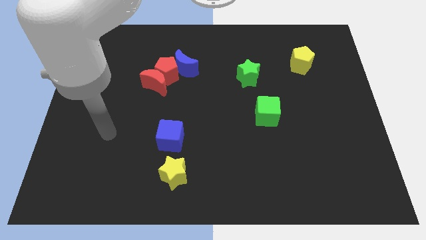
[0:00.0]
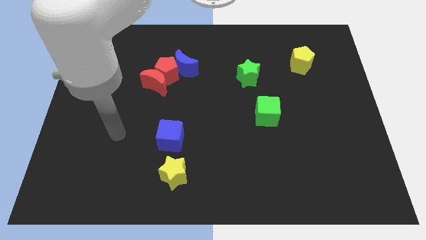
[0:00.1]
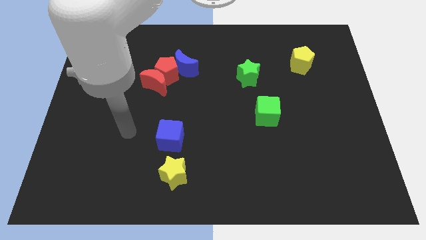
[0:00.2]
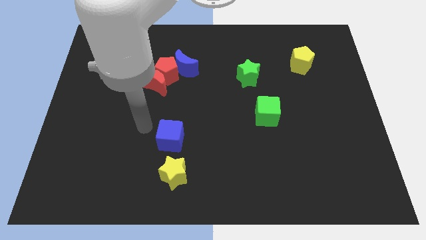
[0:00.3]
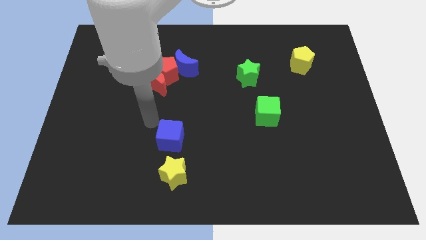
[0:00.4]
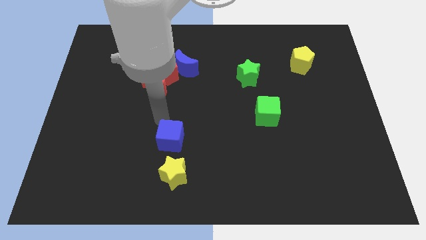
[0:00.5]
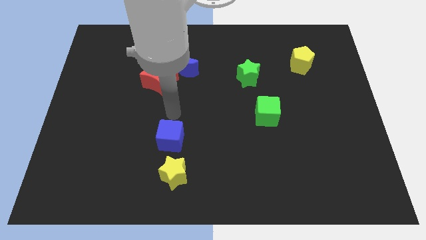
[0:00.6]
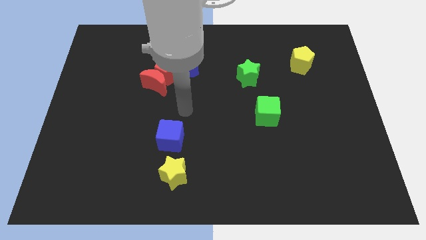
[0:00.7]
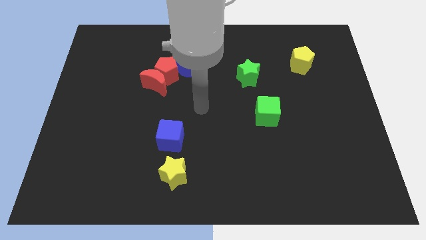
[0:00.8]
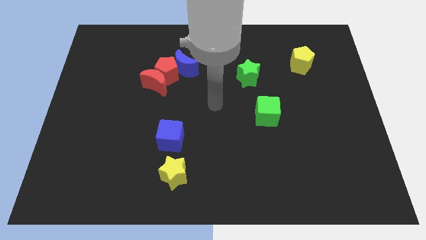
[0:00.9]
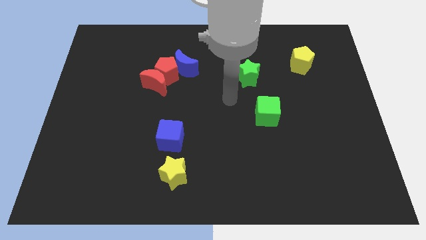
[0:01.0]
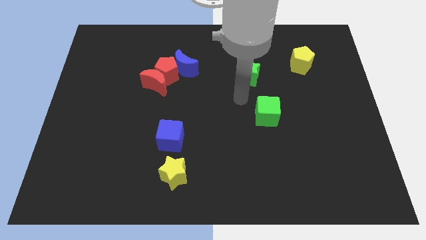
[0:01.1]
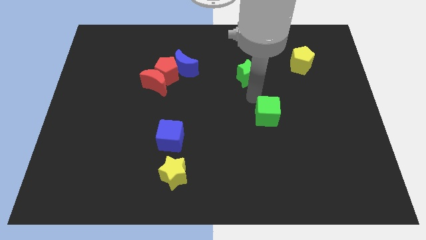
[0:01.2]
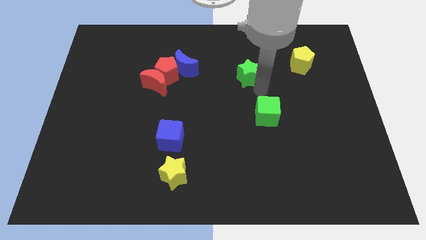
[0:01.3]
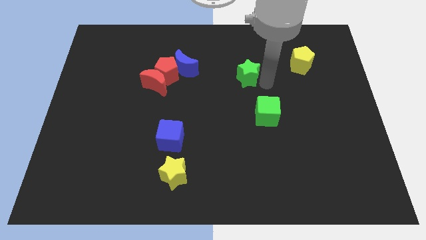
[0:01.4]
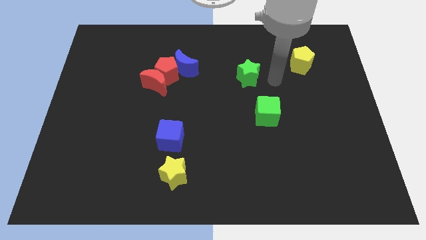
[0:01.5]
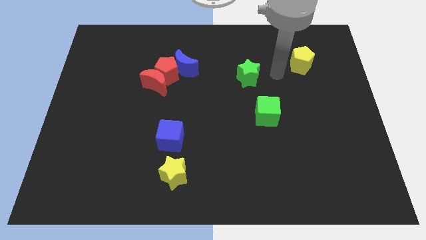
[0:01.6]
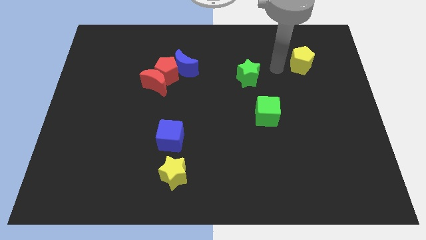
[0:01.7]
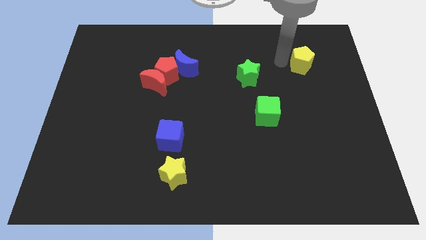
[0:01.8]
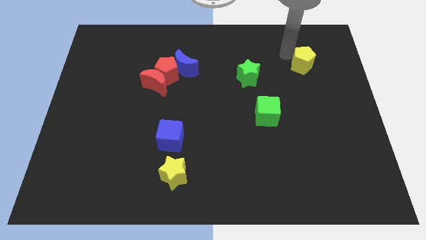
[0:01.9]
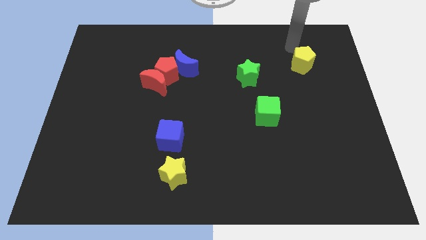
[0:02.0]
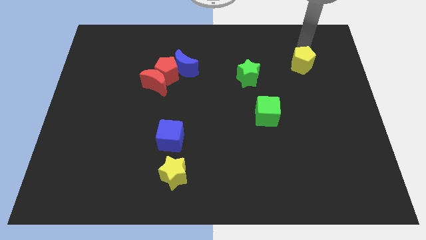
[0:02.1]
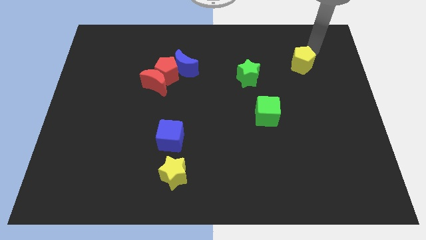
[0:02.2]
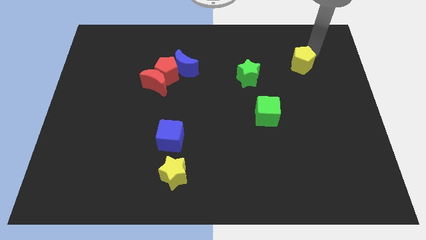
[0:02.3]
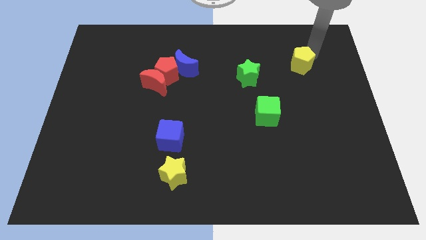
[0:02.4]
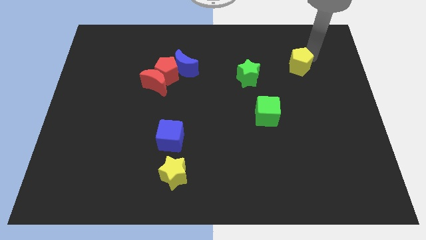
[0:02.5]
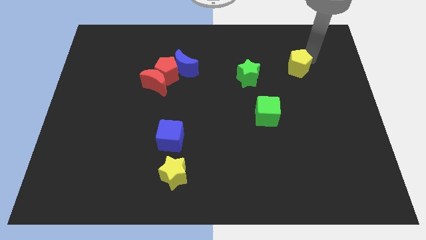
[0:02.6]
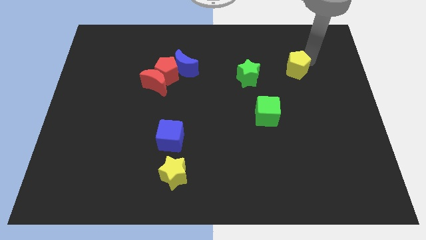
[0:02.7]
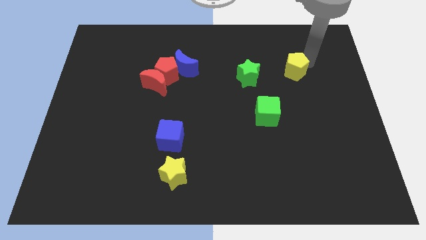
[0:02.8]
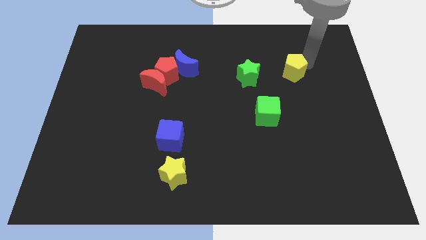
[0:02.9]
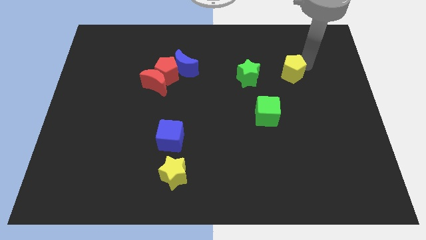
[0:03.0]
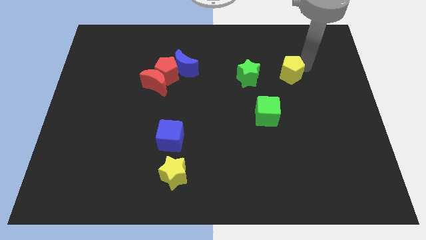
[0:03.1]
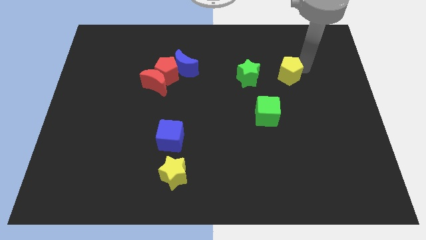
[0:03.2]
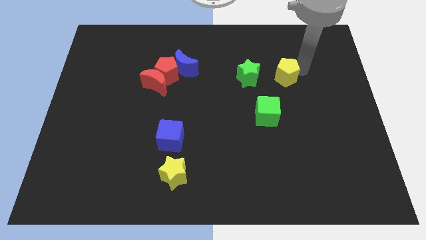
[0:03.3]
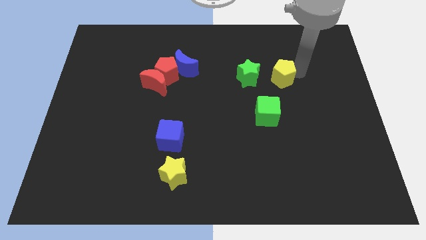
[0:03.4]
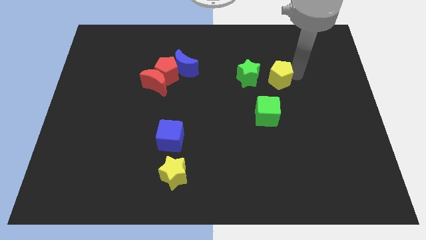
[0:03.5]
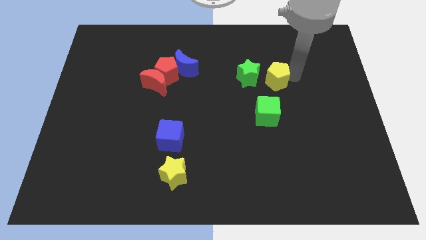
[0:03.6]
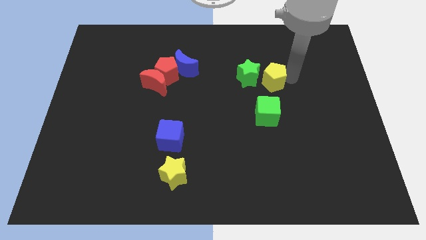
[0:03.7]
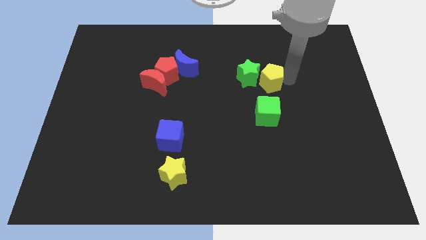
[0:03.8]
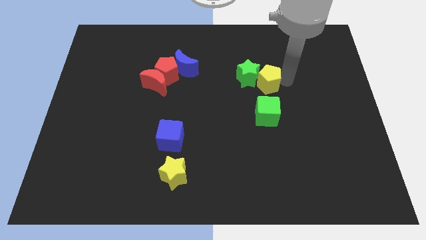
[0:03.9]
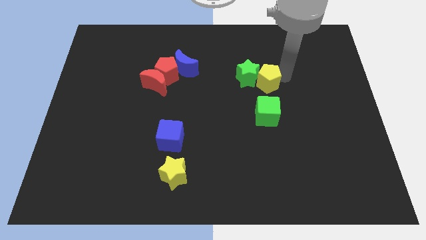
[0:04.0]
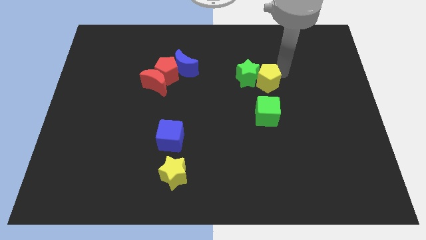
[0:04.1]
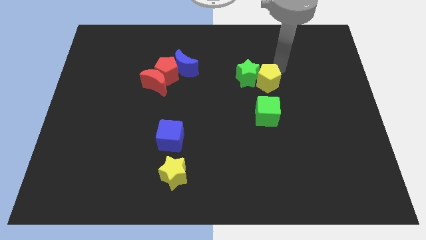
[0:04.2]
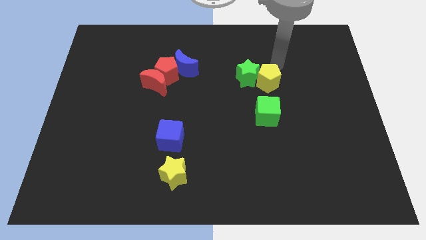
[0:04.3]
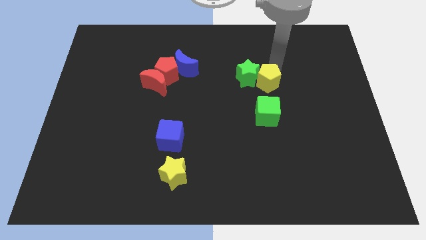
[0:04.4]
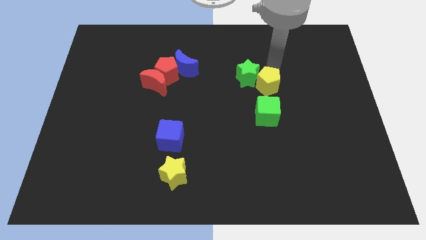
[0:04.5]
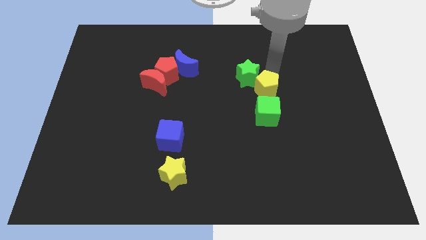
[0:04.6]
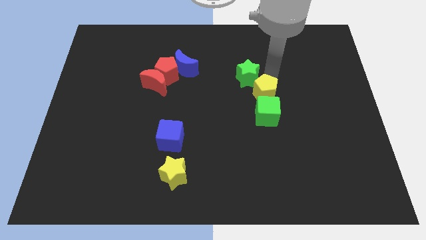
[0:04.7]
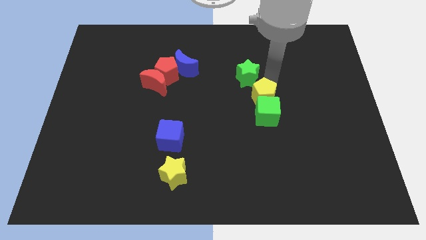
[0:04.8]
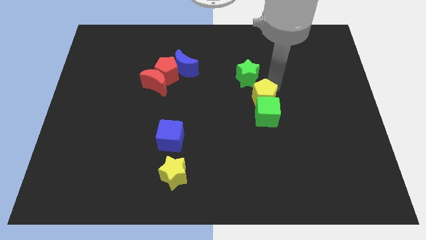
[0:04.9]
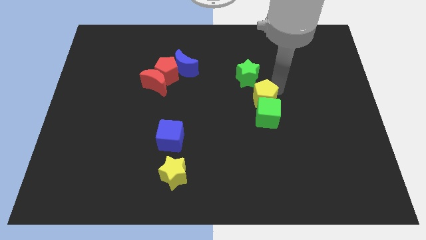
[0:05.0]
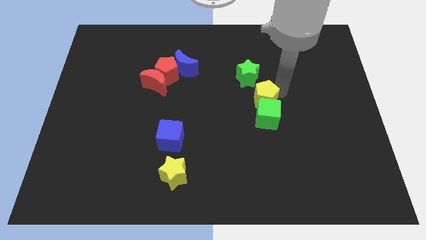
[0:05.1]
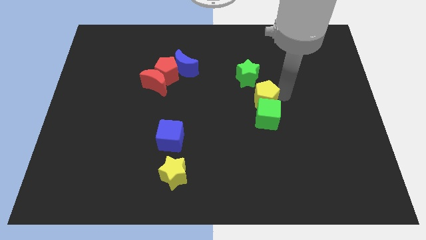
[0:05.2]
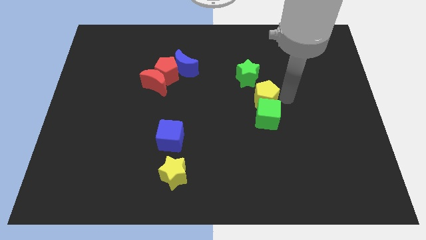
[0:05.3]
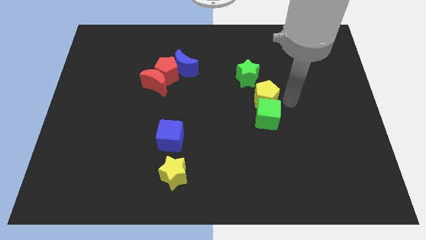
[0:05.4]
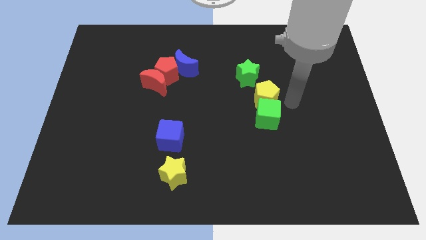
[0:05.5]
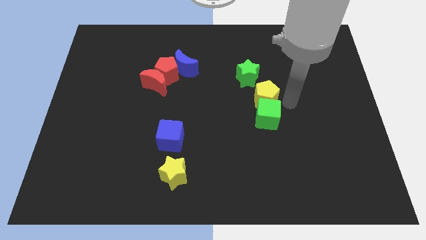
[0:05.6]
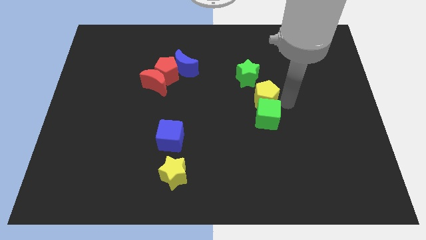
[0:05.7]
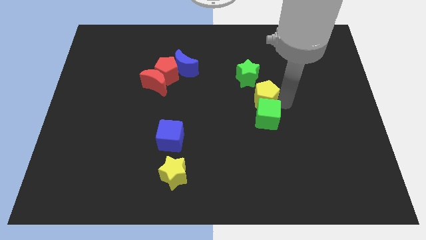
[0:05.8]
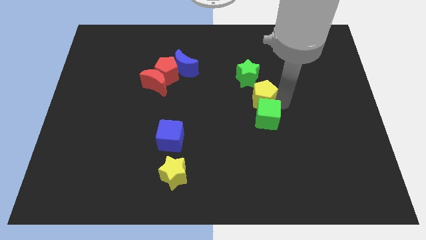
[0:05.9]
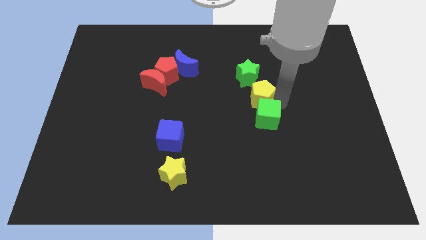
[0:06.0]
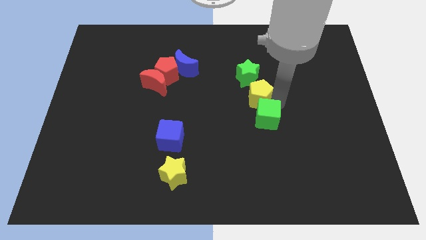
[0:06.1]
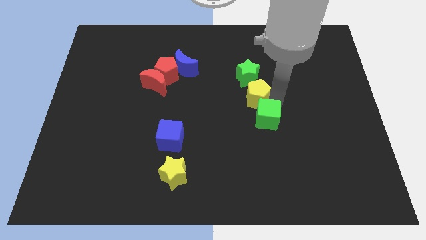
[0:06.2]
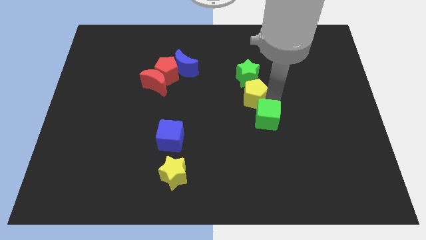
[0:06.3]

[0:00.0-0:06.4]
slide the yellow pentagon diagonally down and to the left of the green star

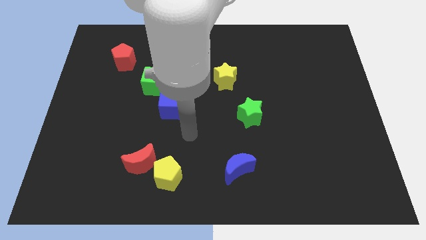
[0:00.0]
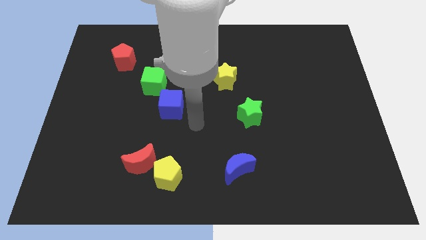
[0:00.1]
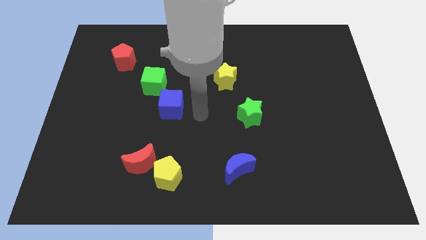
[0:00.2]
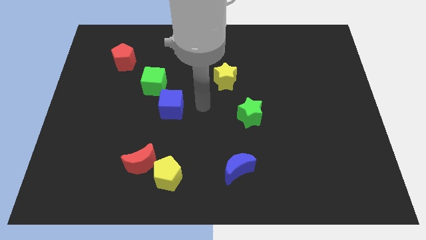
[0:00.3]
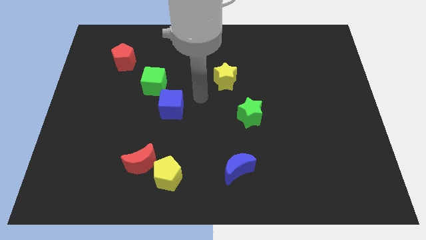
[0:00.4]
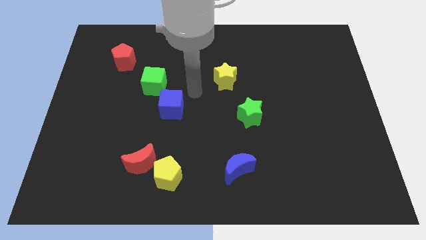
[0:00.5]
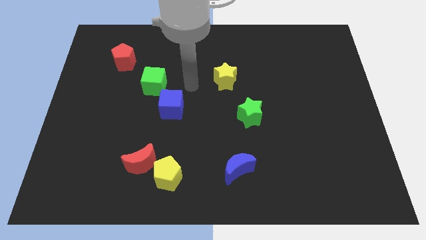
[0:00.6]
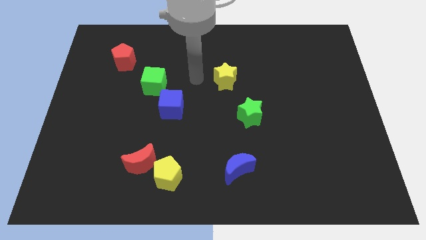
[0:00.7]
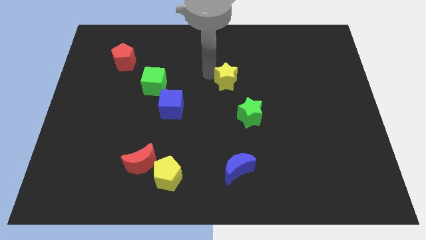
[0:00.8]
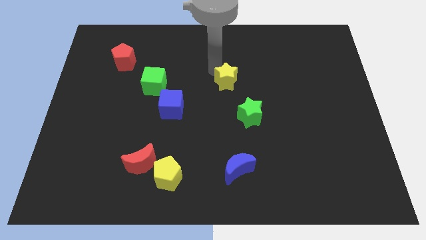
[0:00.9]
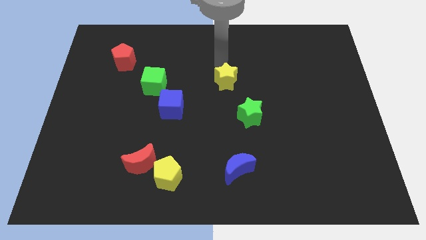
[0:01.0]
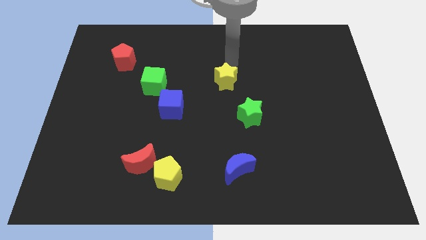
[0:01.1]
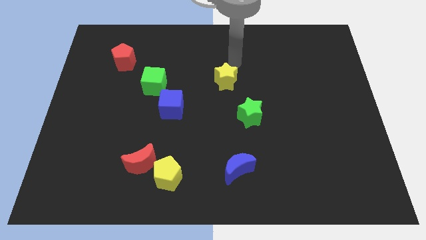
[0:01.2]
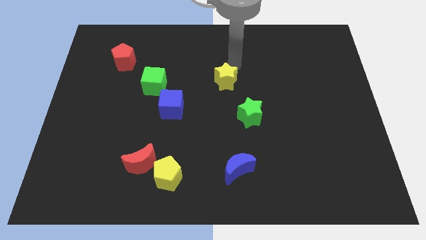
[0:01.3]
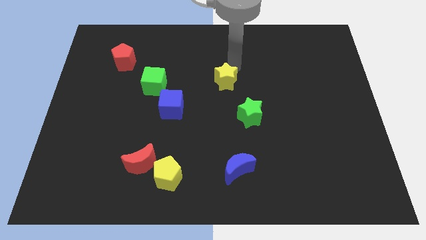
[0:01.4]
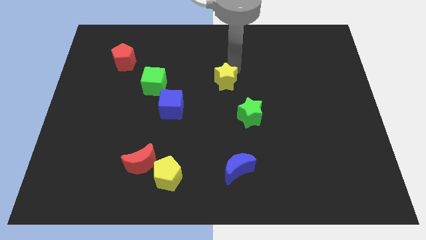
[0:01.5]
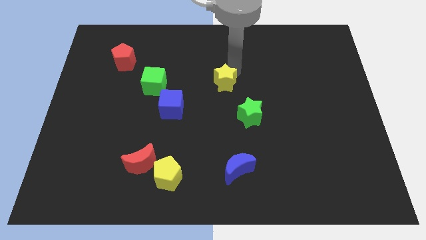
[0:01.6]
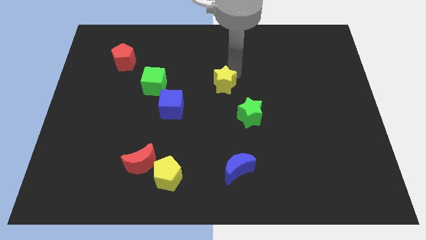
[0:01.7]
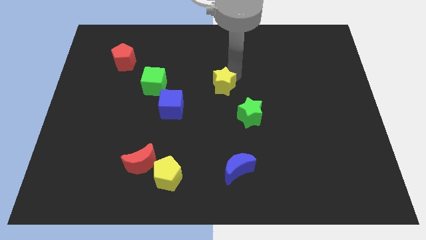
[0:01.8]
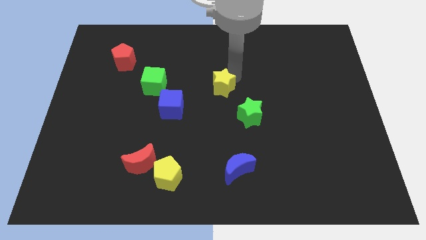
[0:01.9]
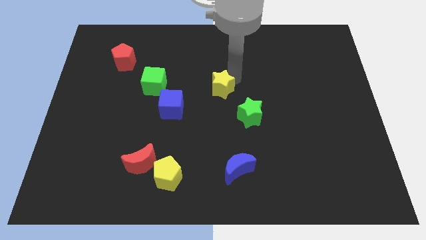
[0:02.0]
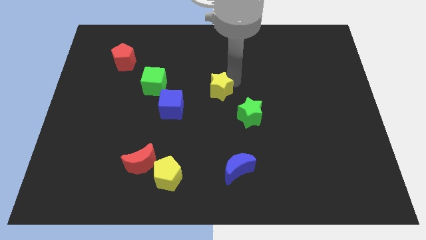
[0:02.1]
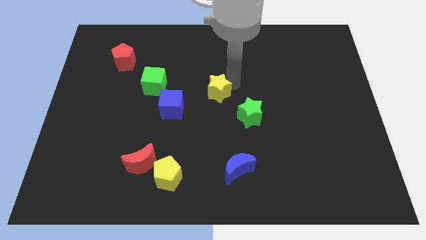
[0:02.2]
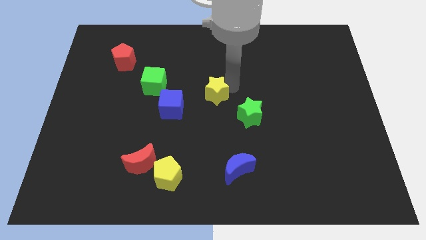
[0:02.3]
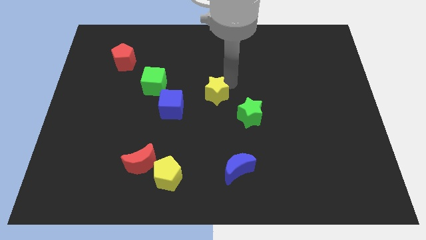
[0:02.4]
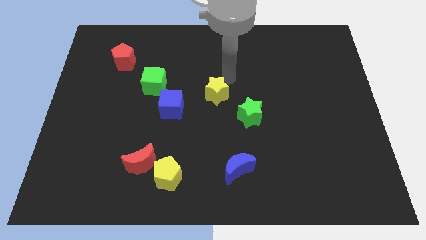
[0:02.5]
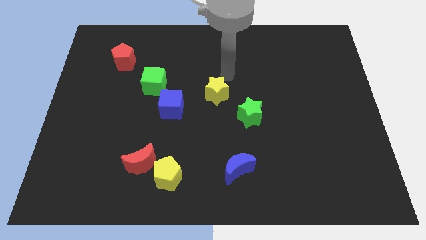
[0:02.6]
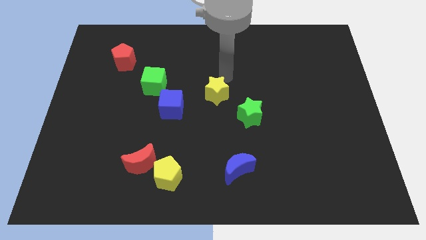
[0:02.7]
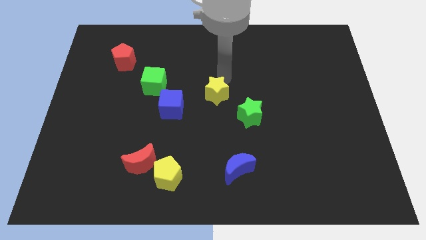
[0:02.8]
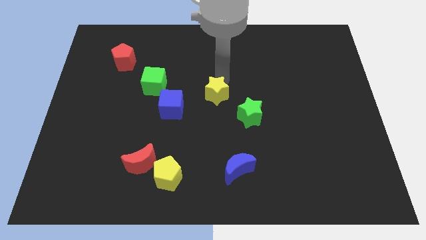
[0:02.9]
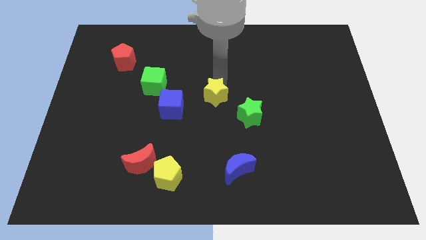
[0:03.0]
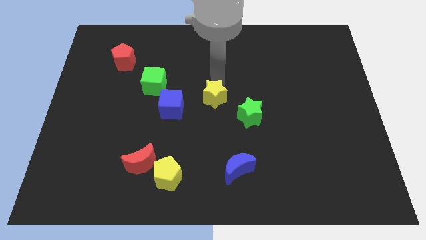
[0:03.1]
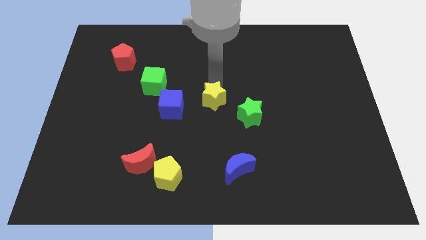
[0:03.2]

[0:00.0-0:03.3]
slide the yellow star just left of the green star
